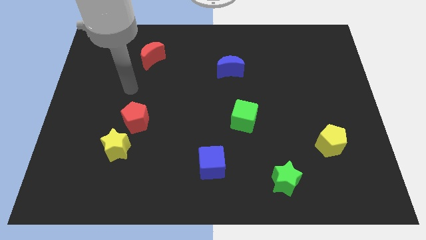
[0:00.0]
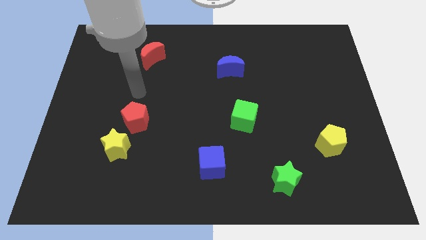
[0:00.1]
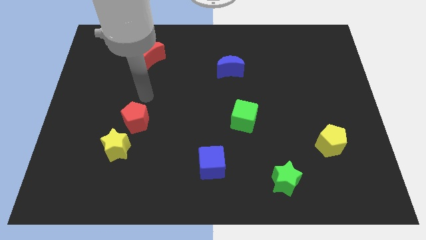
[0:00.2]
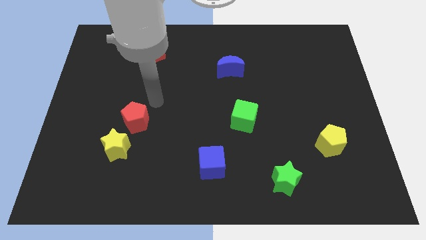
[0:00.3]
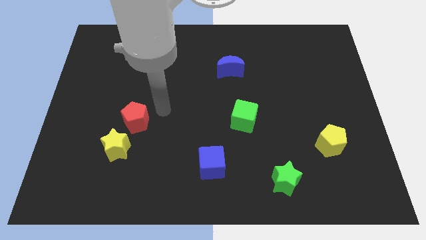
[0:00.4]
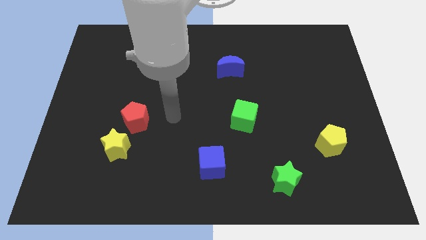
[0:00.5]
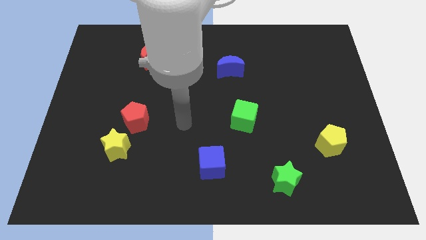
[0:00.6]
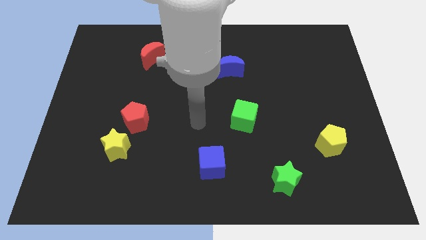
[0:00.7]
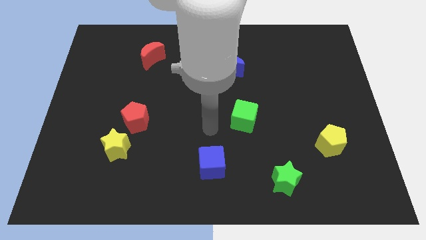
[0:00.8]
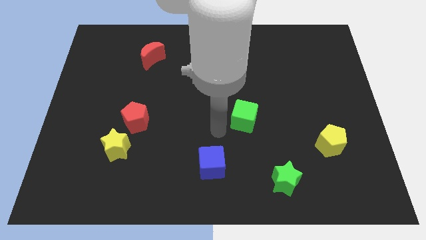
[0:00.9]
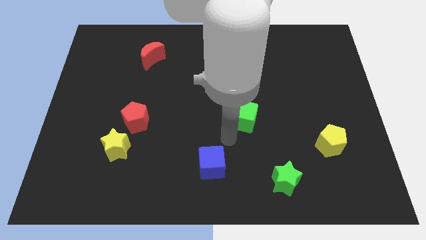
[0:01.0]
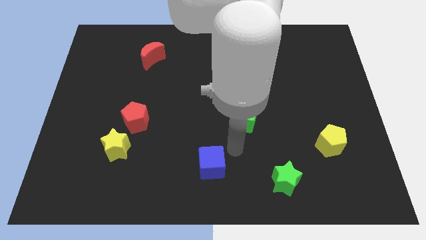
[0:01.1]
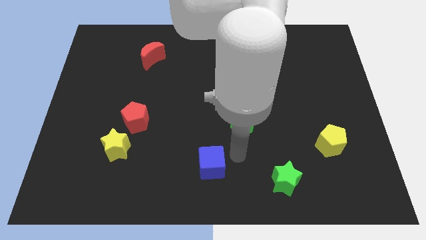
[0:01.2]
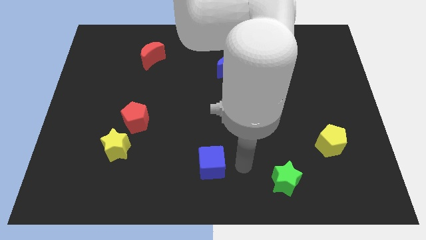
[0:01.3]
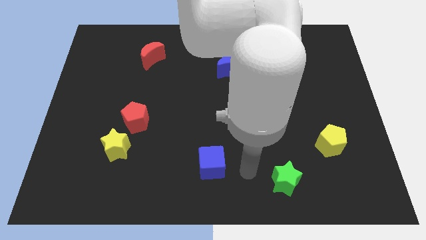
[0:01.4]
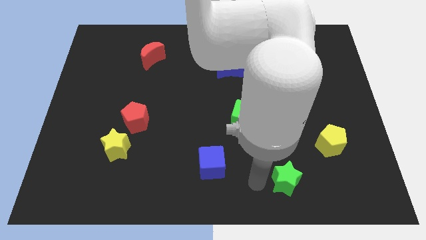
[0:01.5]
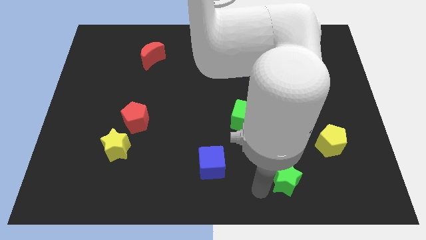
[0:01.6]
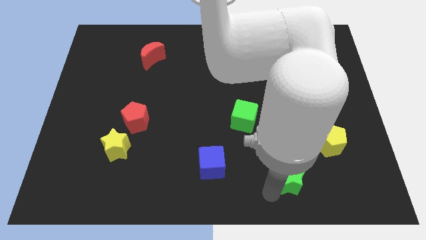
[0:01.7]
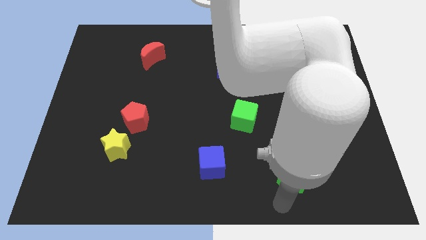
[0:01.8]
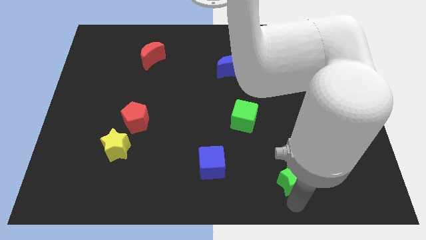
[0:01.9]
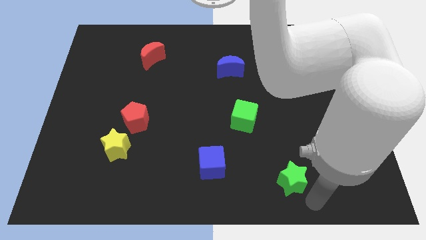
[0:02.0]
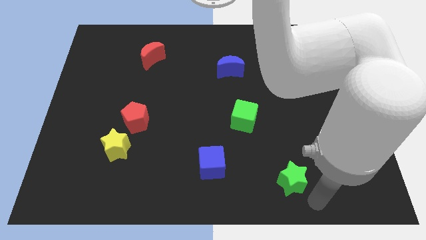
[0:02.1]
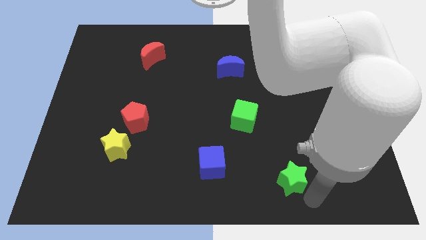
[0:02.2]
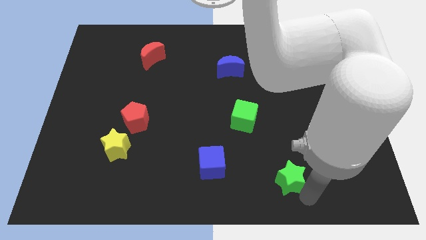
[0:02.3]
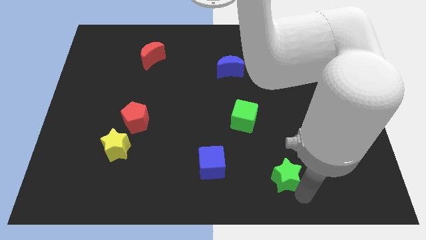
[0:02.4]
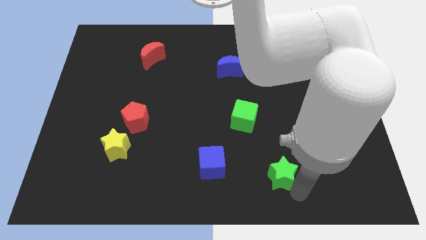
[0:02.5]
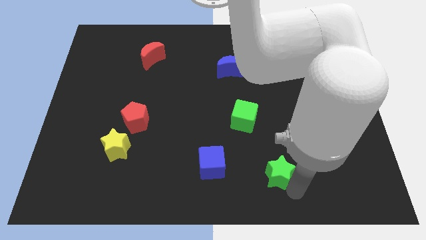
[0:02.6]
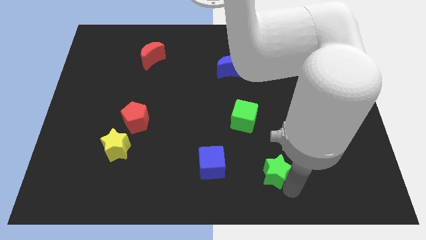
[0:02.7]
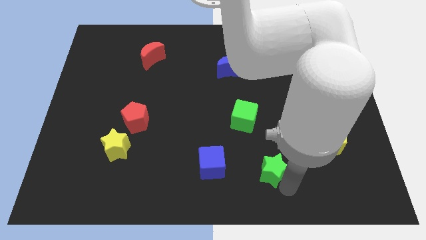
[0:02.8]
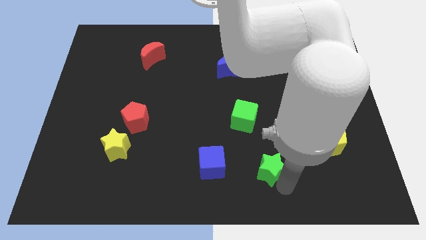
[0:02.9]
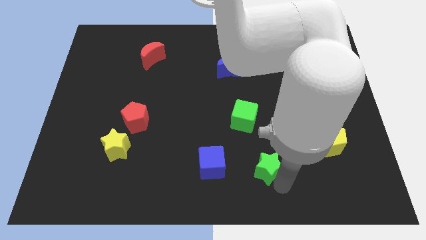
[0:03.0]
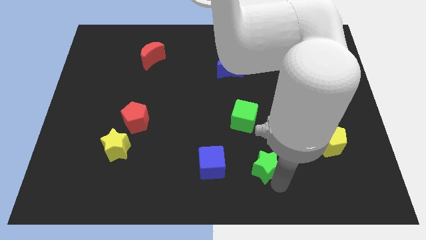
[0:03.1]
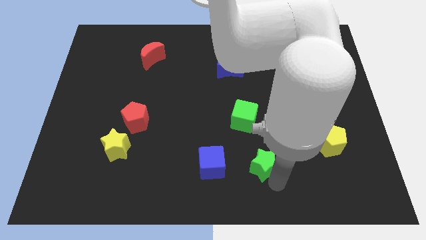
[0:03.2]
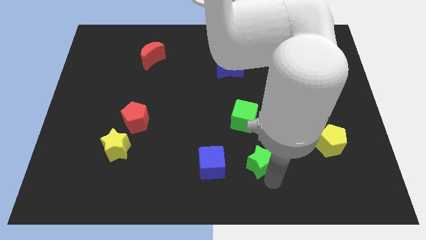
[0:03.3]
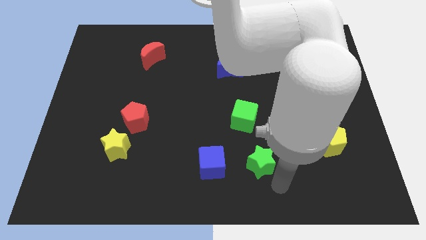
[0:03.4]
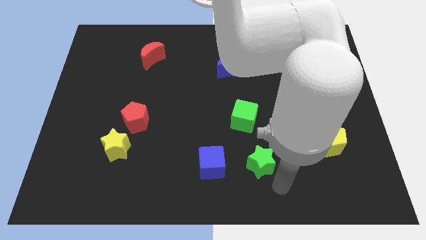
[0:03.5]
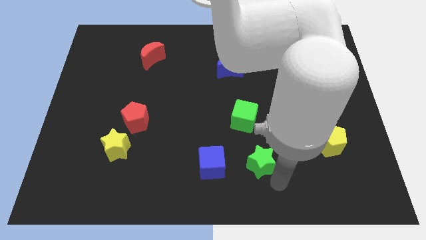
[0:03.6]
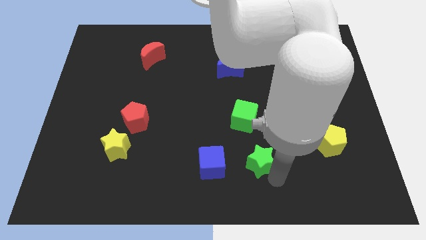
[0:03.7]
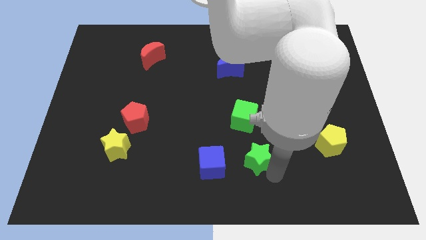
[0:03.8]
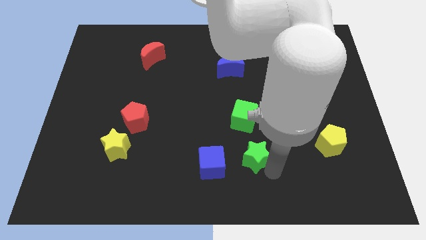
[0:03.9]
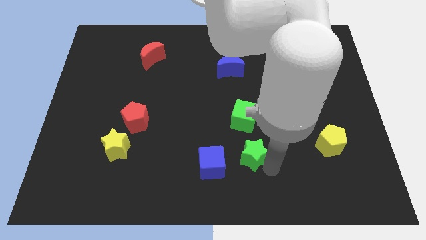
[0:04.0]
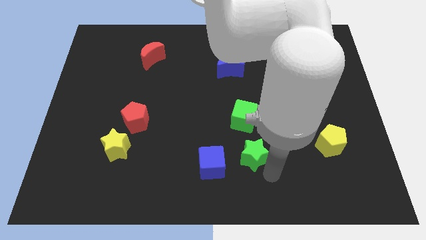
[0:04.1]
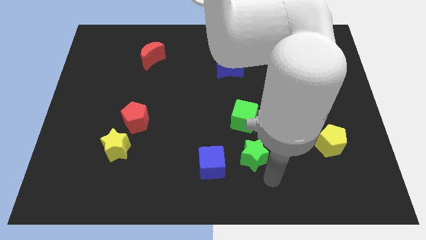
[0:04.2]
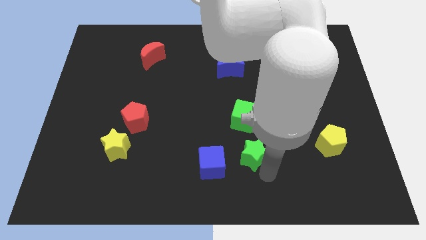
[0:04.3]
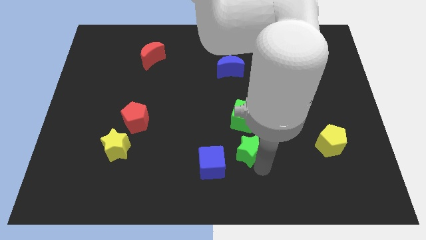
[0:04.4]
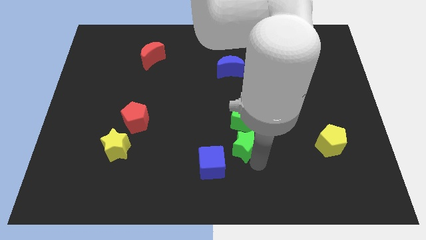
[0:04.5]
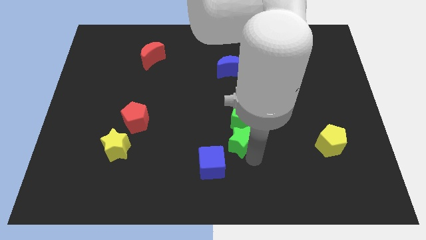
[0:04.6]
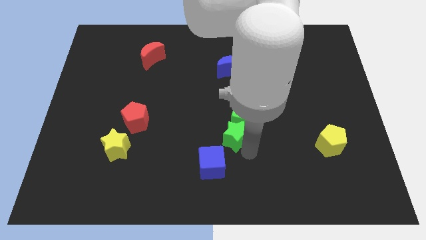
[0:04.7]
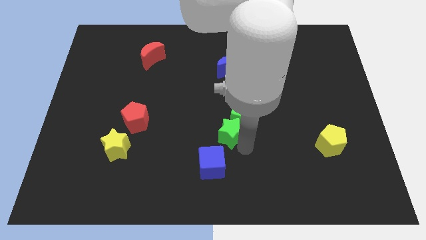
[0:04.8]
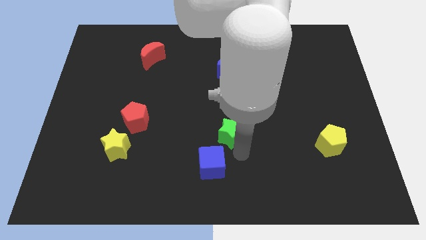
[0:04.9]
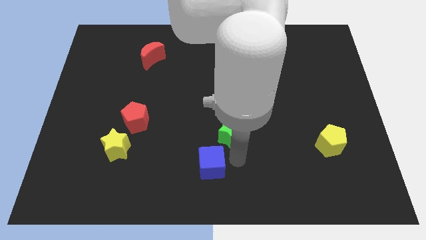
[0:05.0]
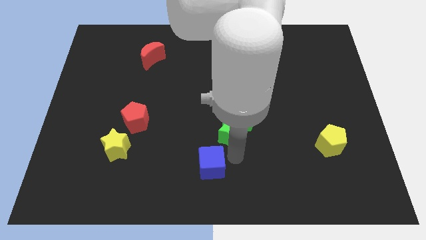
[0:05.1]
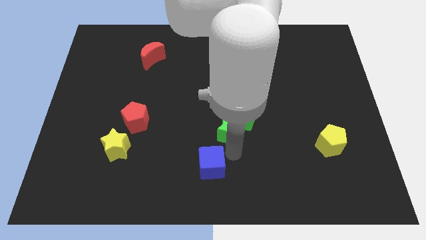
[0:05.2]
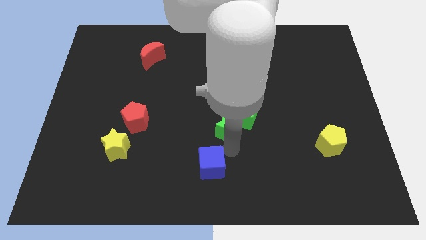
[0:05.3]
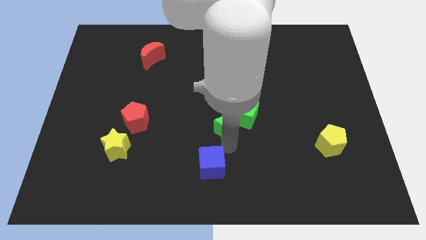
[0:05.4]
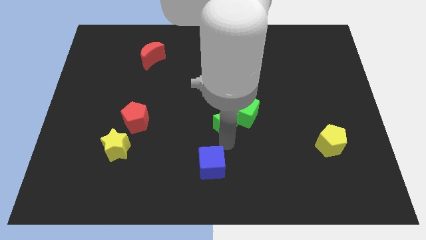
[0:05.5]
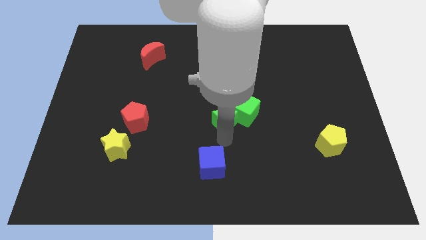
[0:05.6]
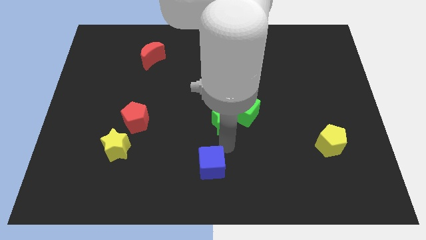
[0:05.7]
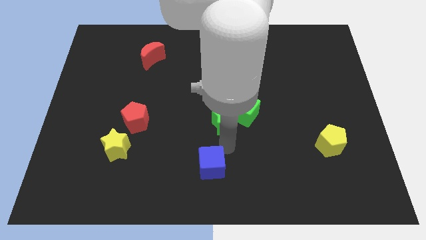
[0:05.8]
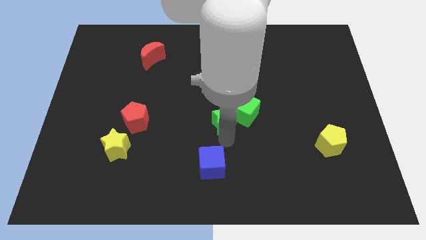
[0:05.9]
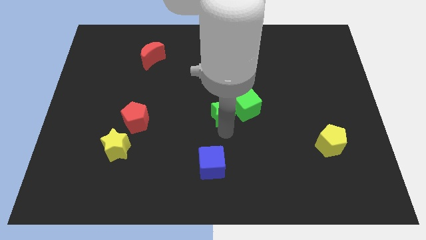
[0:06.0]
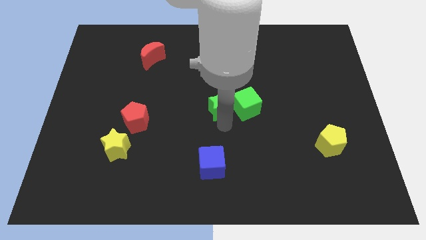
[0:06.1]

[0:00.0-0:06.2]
slide the green star to the top left of the green cube

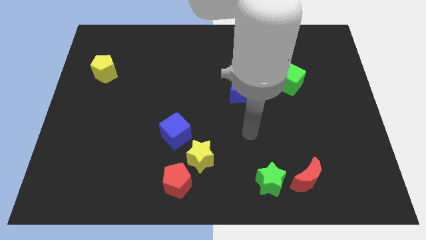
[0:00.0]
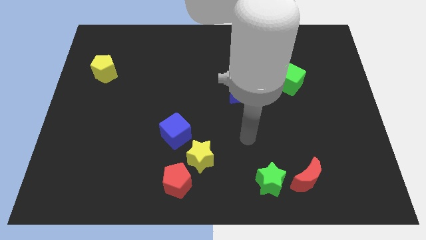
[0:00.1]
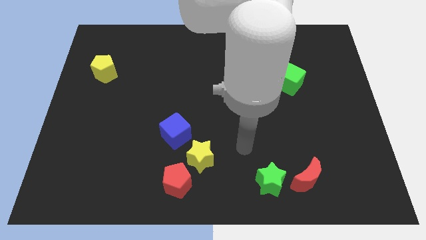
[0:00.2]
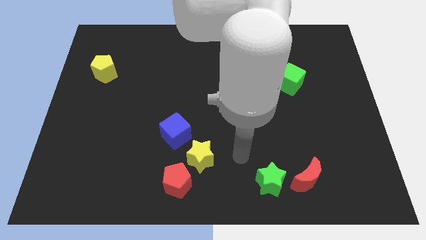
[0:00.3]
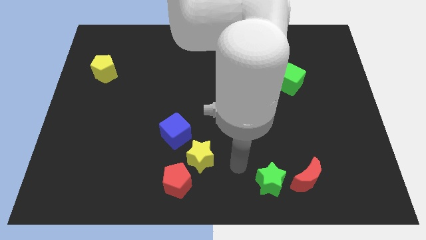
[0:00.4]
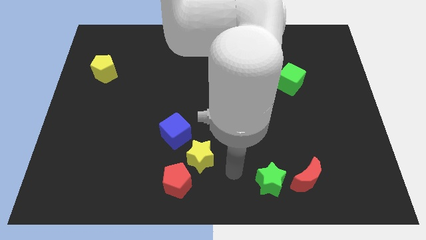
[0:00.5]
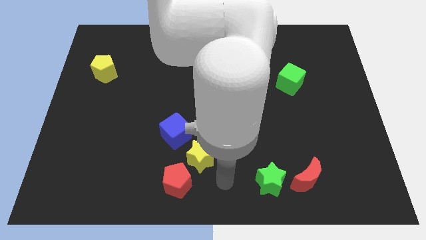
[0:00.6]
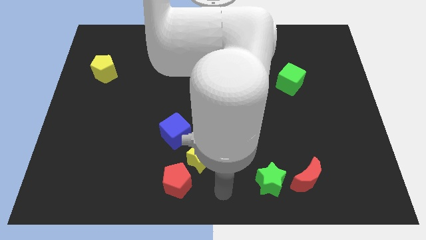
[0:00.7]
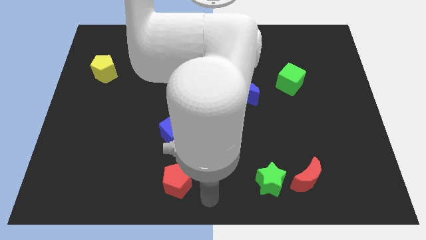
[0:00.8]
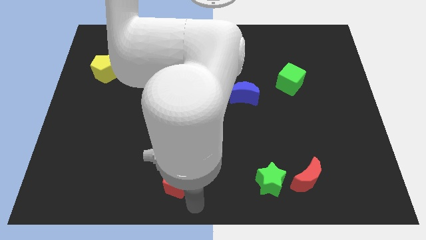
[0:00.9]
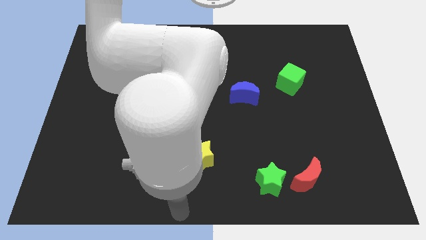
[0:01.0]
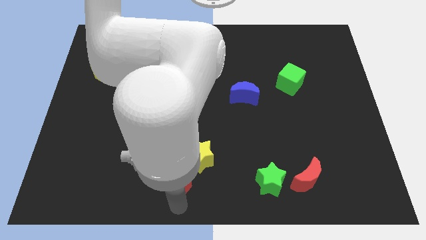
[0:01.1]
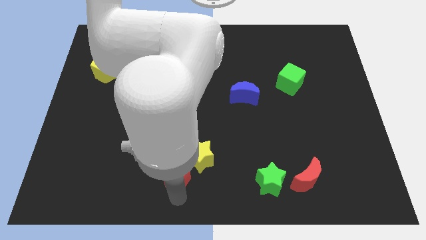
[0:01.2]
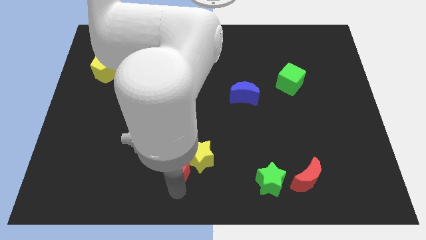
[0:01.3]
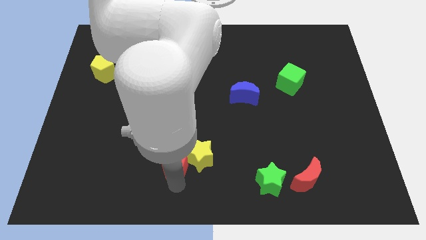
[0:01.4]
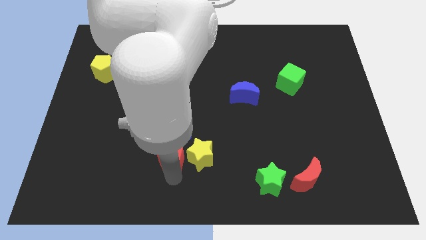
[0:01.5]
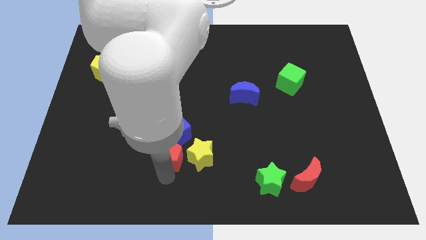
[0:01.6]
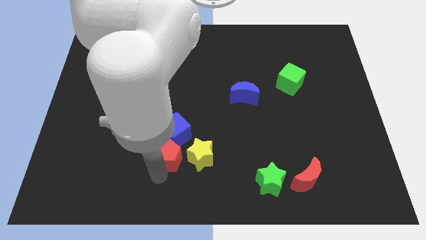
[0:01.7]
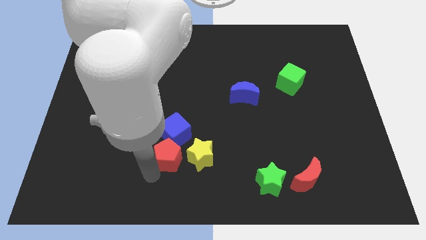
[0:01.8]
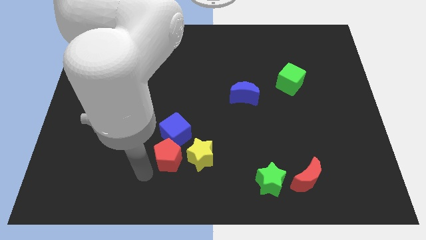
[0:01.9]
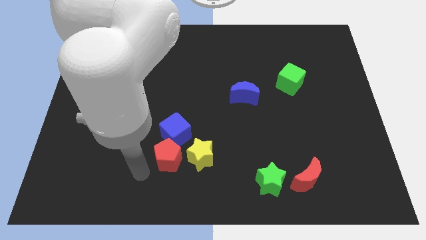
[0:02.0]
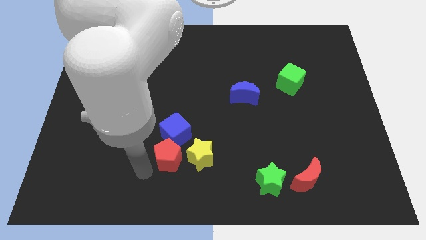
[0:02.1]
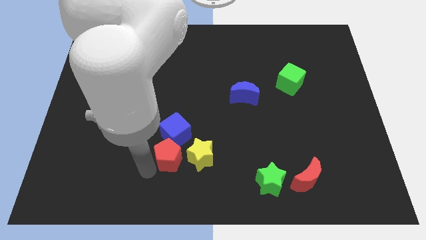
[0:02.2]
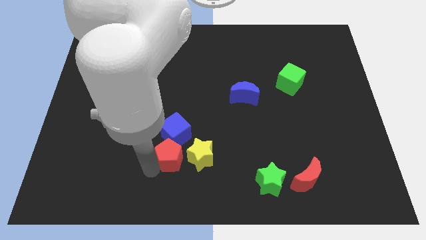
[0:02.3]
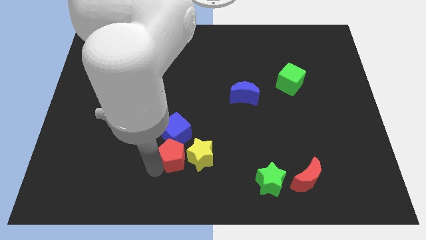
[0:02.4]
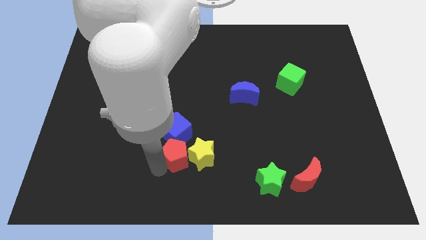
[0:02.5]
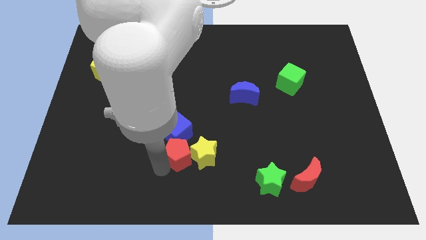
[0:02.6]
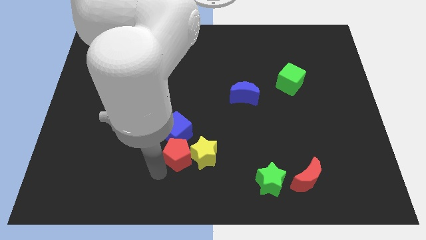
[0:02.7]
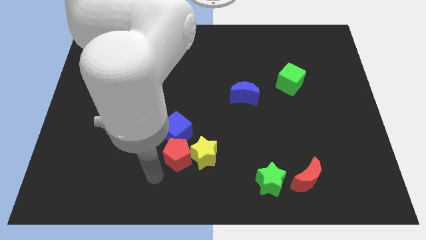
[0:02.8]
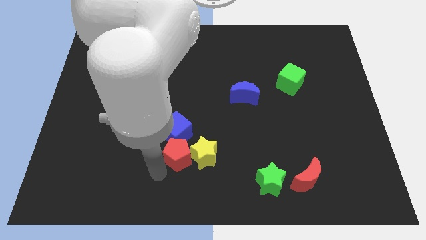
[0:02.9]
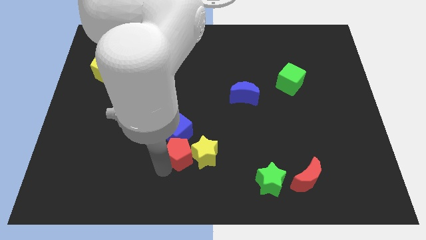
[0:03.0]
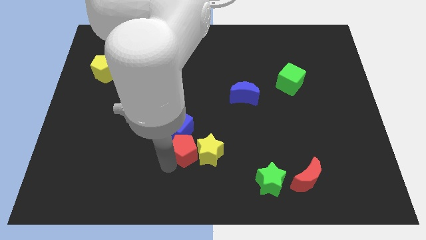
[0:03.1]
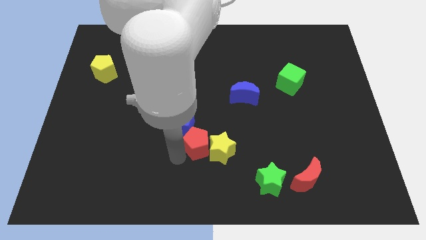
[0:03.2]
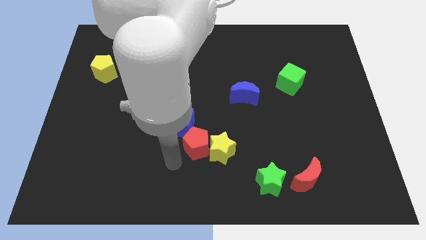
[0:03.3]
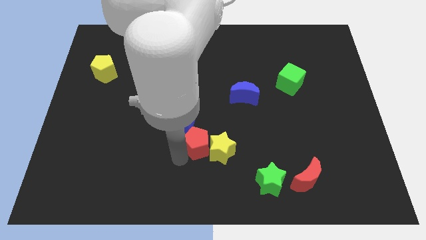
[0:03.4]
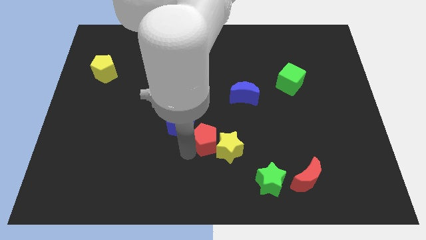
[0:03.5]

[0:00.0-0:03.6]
move the red pentagon right of the blue cube
